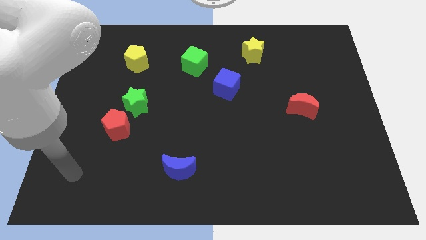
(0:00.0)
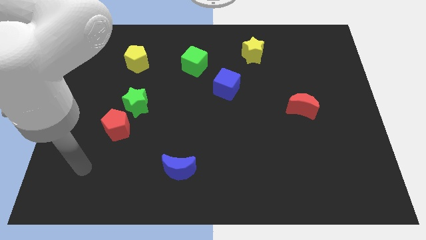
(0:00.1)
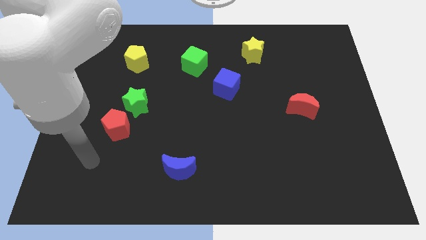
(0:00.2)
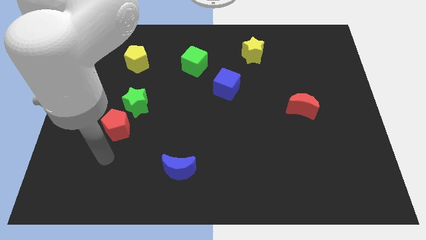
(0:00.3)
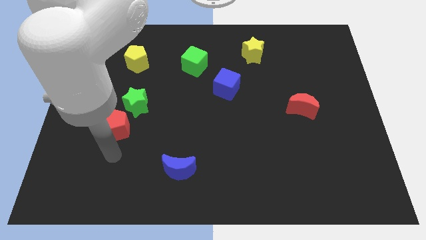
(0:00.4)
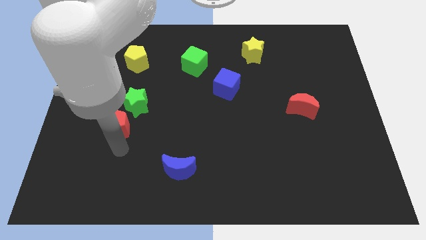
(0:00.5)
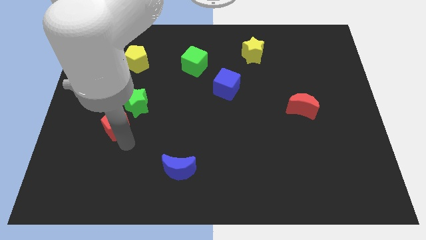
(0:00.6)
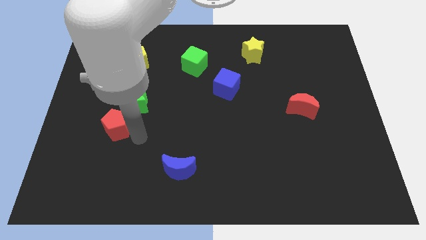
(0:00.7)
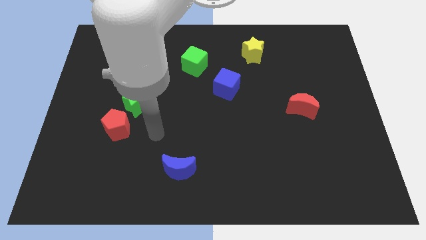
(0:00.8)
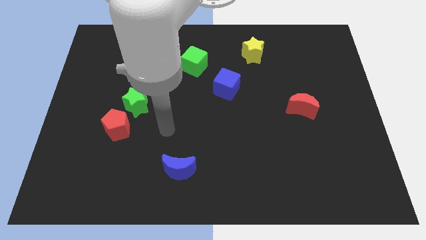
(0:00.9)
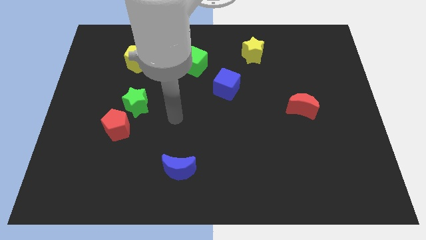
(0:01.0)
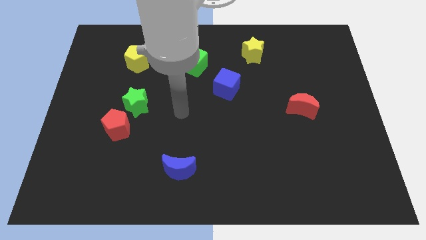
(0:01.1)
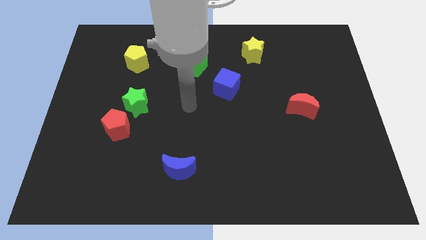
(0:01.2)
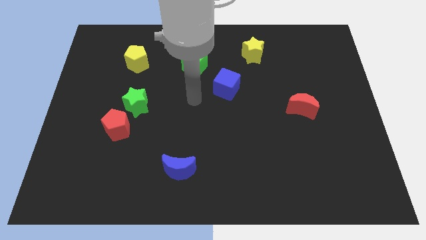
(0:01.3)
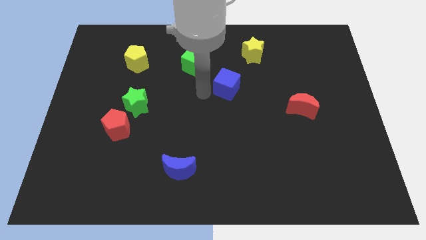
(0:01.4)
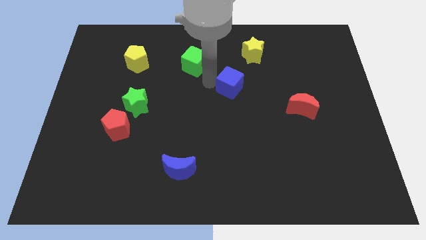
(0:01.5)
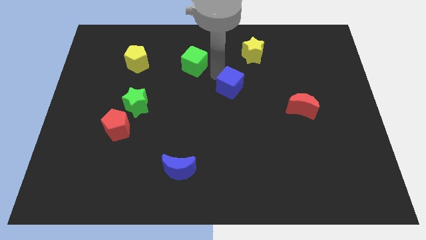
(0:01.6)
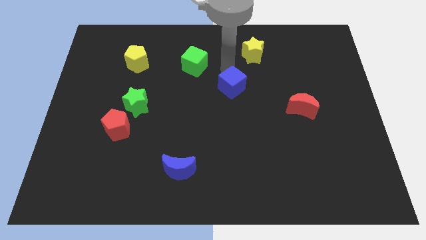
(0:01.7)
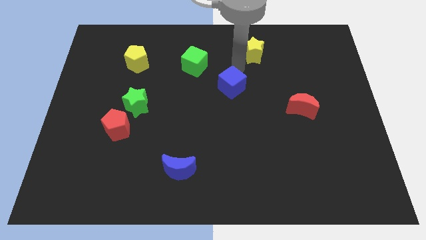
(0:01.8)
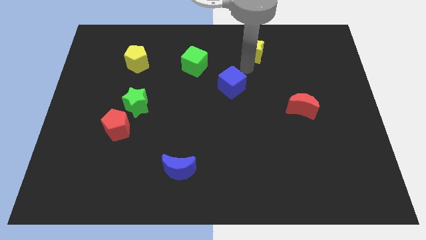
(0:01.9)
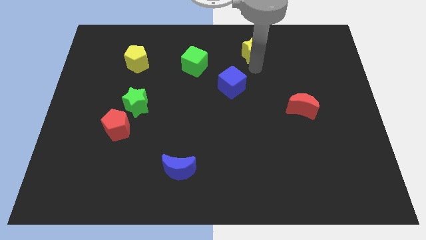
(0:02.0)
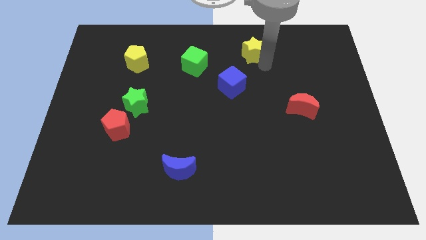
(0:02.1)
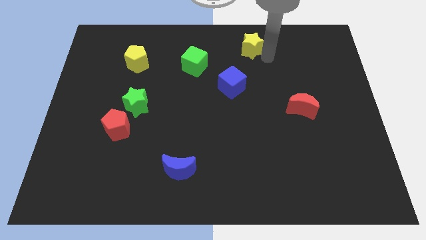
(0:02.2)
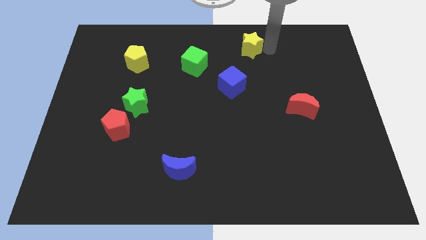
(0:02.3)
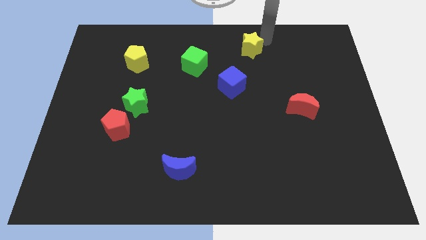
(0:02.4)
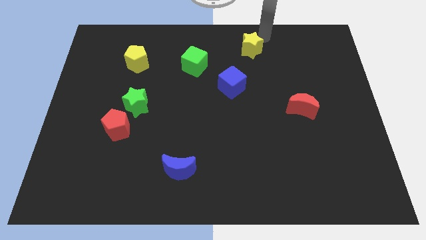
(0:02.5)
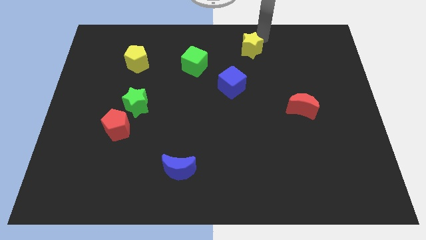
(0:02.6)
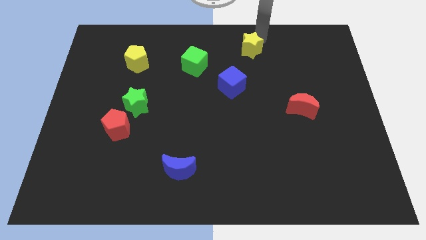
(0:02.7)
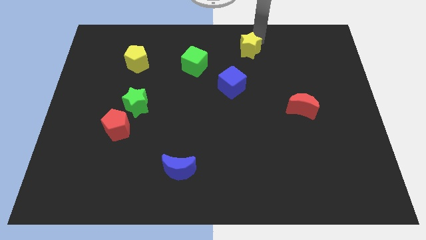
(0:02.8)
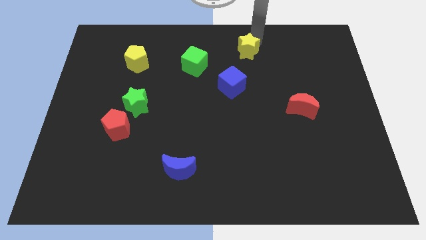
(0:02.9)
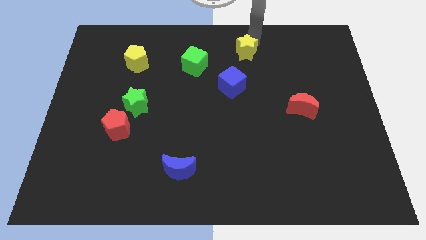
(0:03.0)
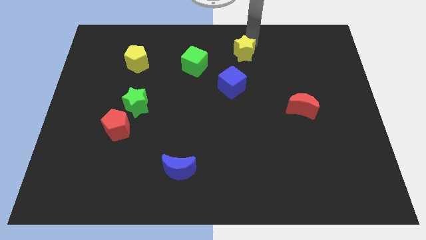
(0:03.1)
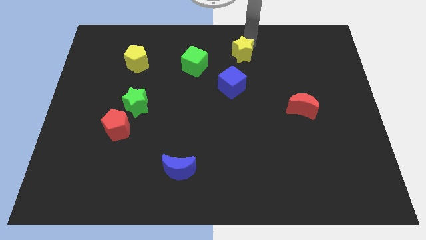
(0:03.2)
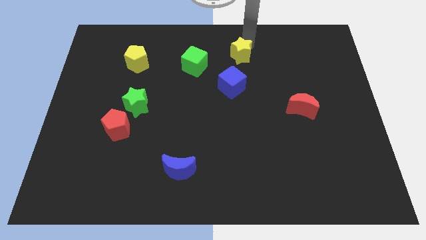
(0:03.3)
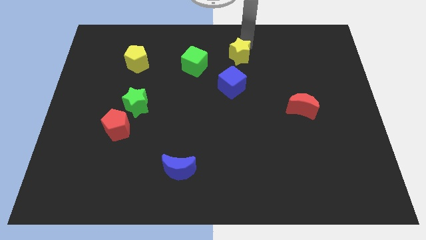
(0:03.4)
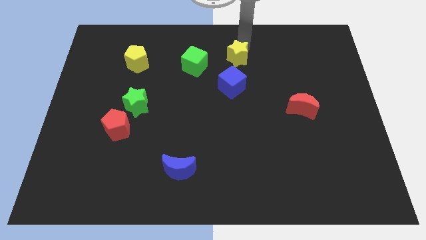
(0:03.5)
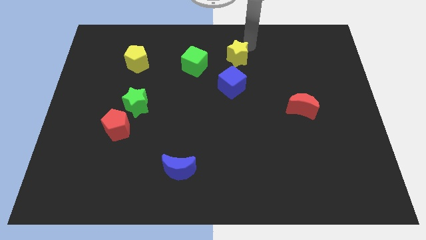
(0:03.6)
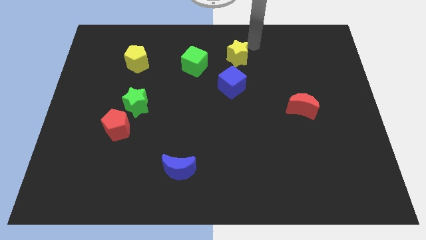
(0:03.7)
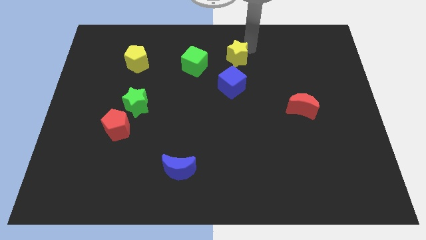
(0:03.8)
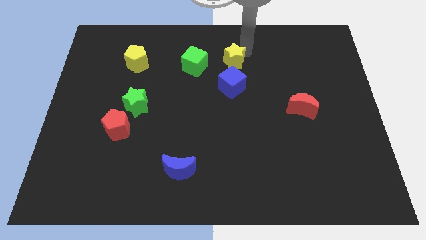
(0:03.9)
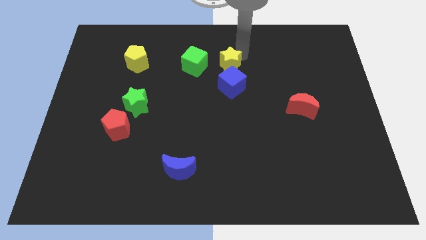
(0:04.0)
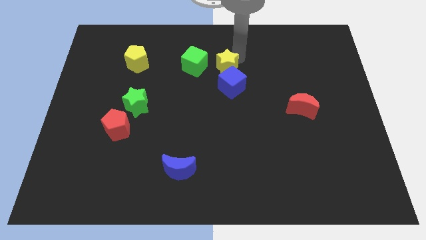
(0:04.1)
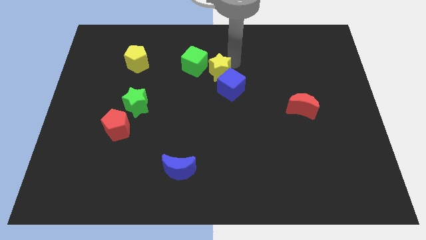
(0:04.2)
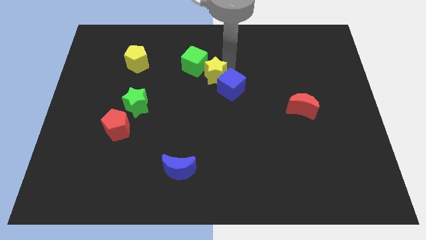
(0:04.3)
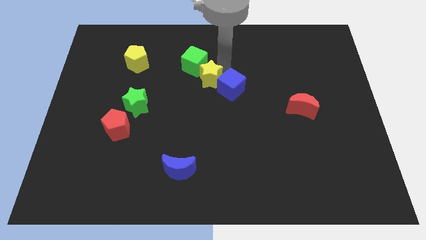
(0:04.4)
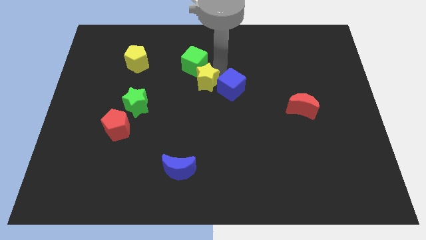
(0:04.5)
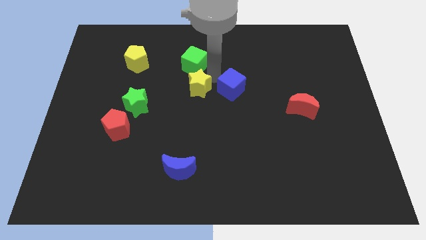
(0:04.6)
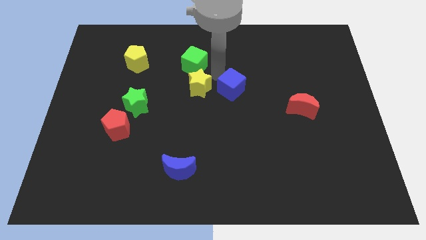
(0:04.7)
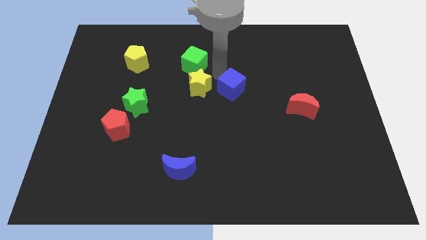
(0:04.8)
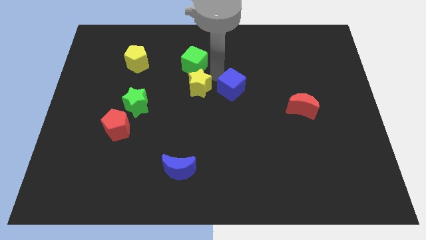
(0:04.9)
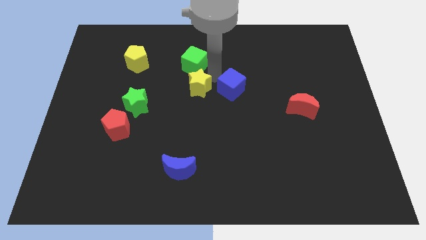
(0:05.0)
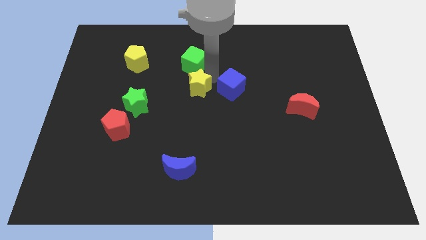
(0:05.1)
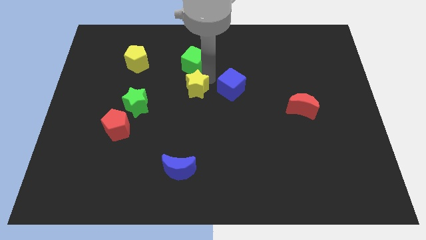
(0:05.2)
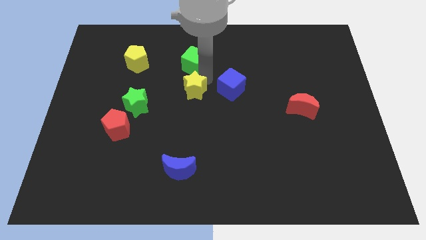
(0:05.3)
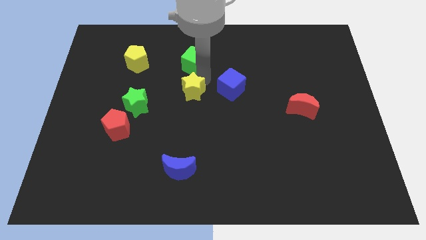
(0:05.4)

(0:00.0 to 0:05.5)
move the yellow star down and left

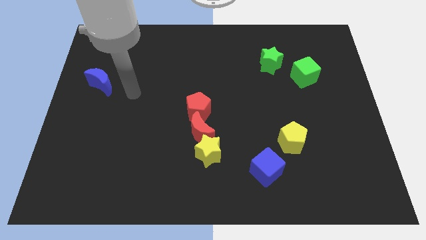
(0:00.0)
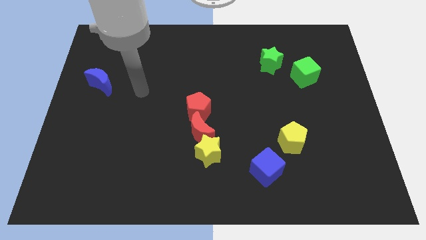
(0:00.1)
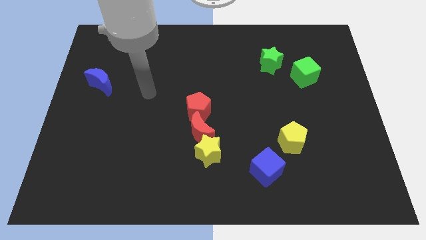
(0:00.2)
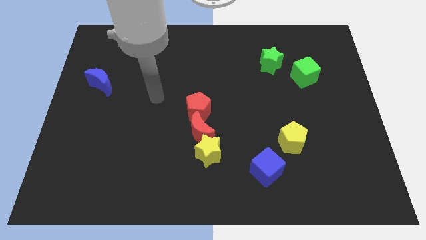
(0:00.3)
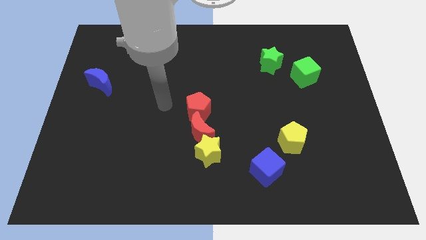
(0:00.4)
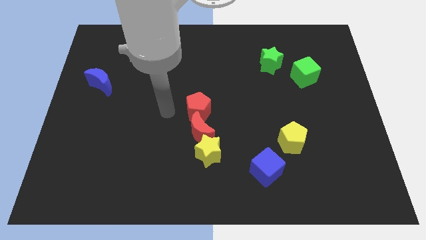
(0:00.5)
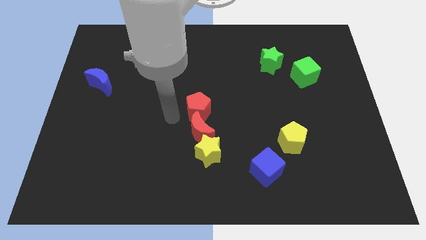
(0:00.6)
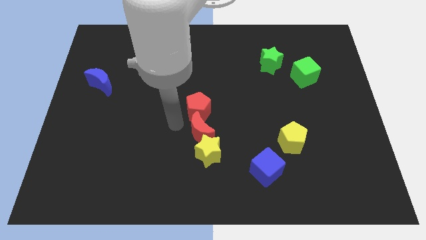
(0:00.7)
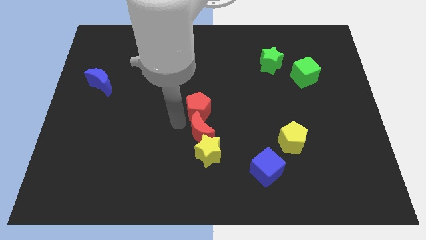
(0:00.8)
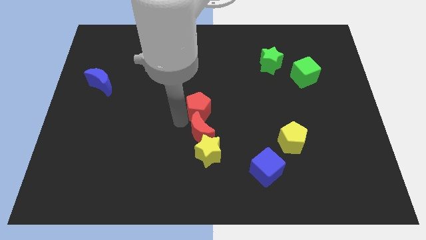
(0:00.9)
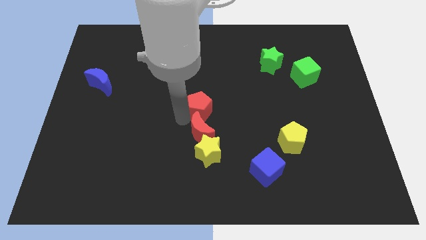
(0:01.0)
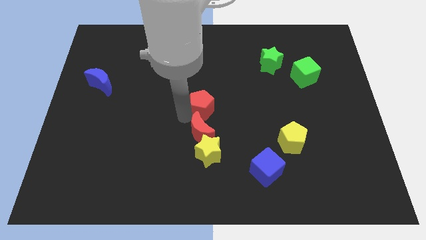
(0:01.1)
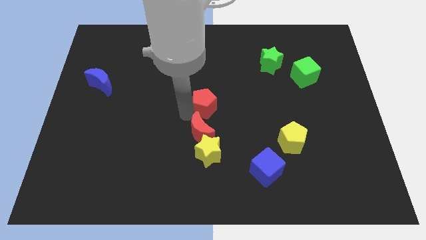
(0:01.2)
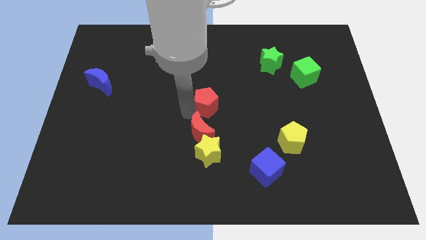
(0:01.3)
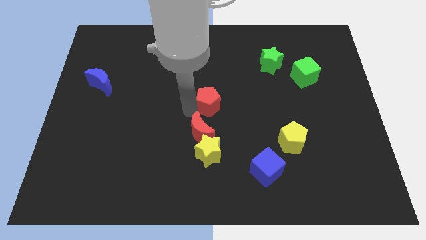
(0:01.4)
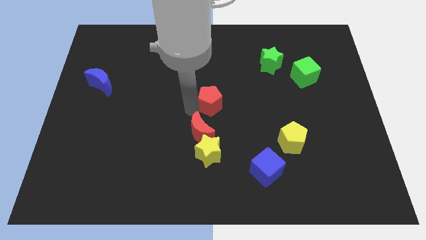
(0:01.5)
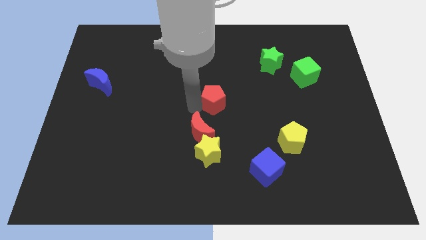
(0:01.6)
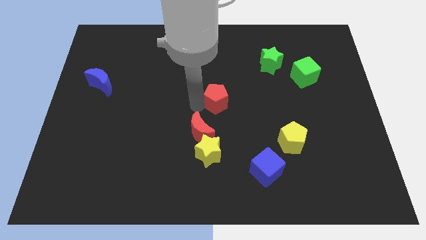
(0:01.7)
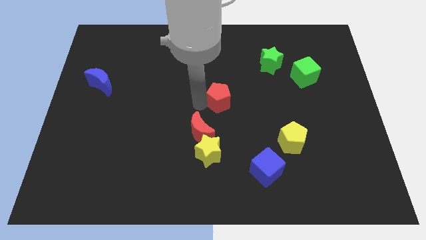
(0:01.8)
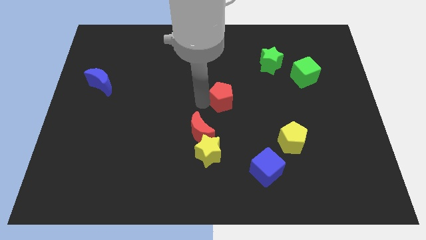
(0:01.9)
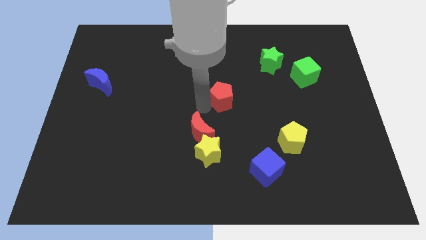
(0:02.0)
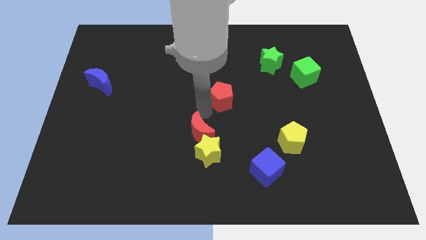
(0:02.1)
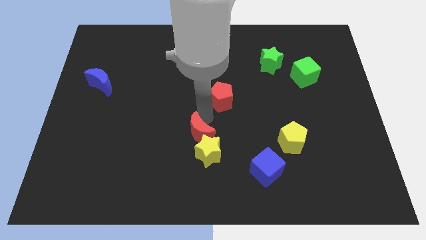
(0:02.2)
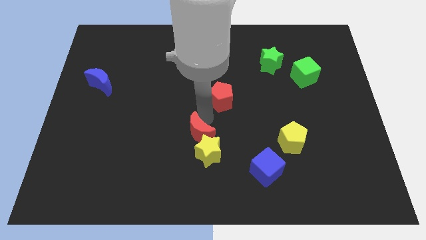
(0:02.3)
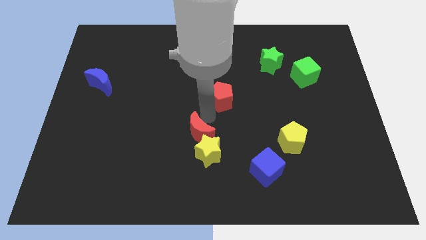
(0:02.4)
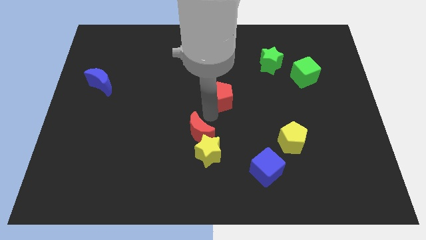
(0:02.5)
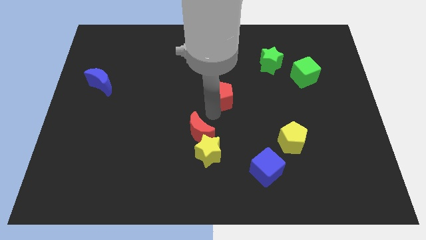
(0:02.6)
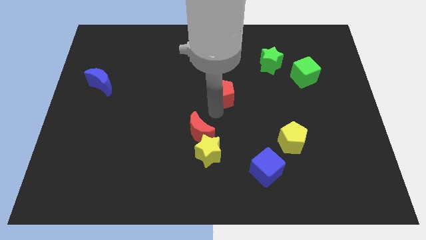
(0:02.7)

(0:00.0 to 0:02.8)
slightly push the red pentagon upwards and right diagonally
